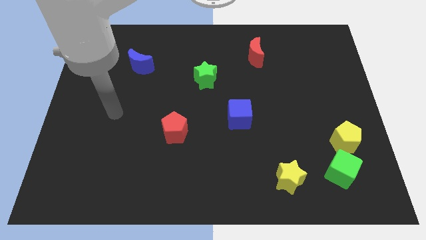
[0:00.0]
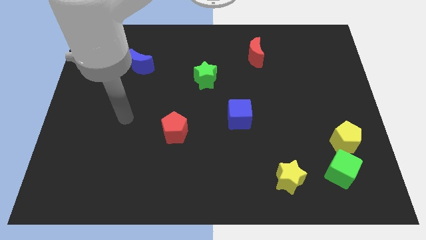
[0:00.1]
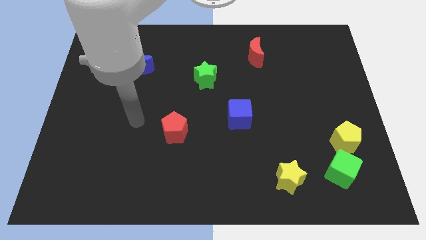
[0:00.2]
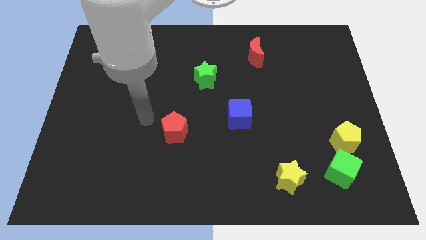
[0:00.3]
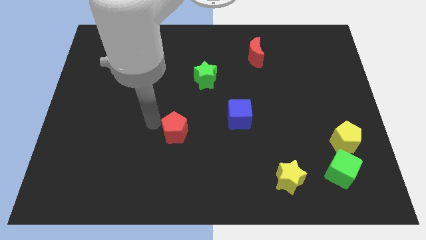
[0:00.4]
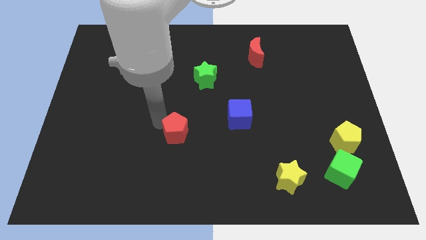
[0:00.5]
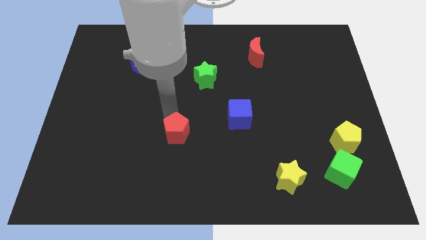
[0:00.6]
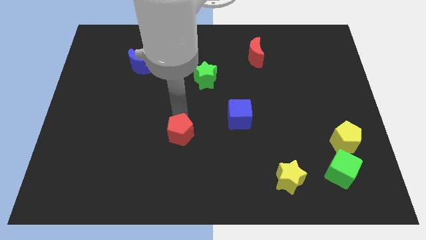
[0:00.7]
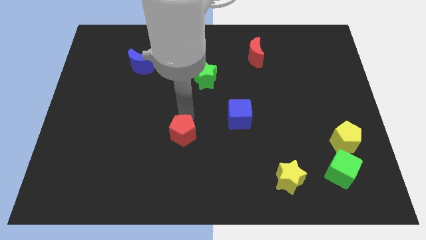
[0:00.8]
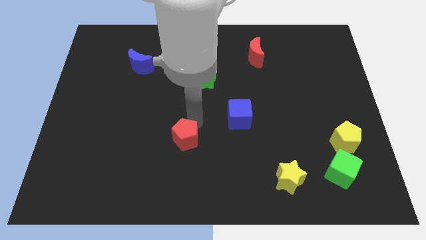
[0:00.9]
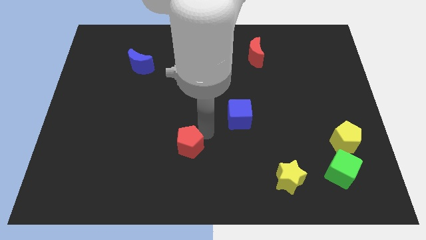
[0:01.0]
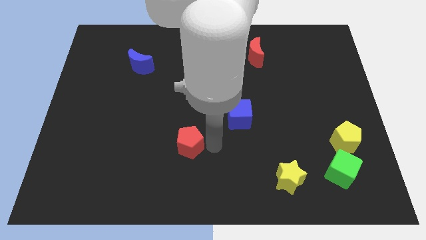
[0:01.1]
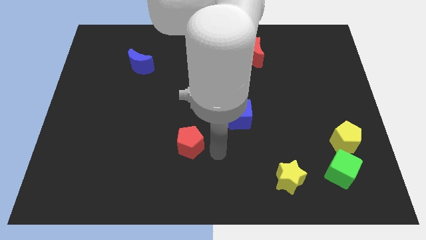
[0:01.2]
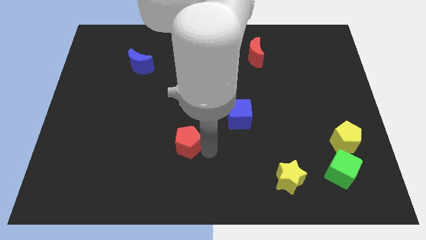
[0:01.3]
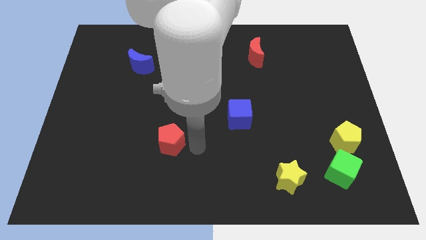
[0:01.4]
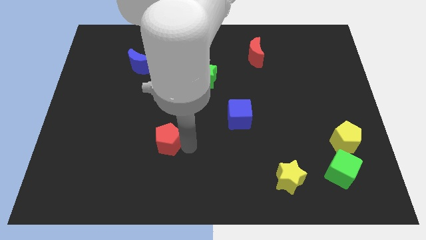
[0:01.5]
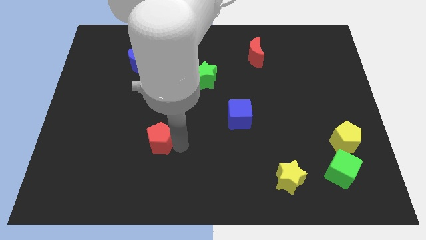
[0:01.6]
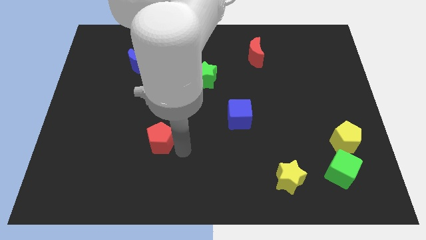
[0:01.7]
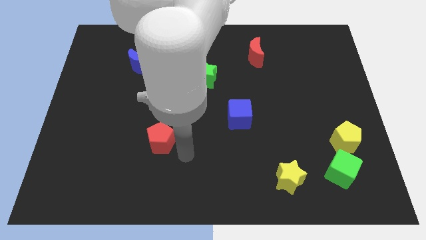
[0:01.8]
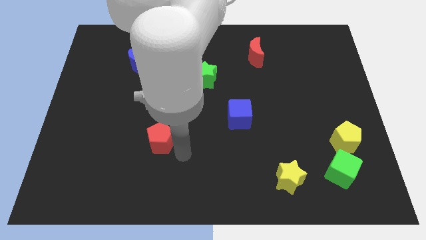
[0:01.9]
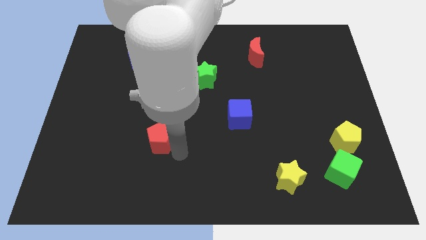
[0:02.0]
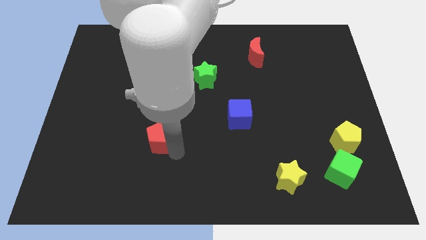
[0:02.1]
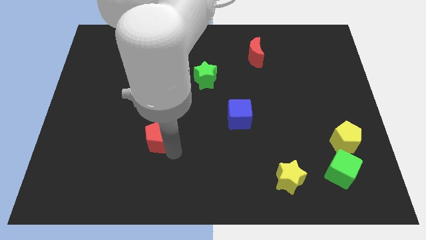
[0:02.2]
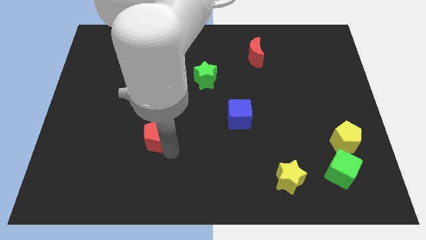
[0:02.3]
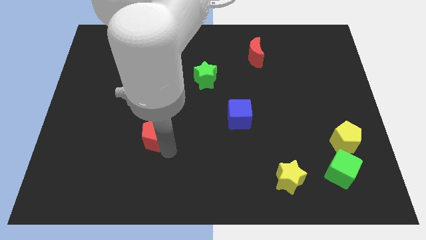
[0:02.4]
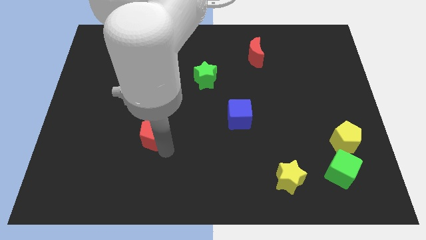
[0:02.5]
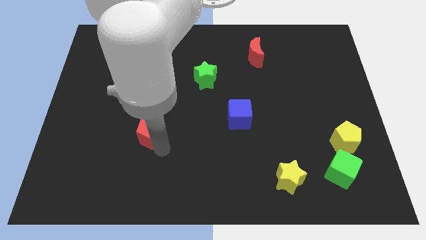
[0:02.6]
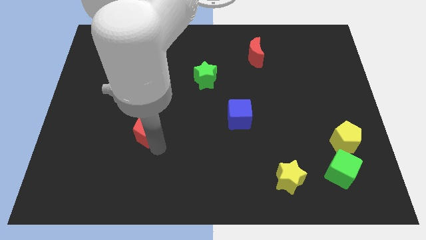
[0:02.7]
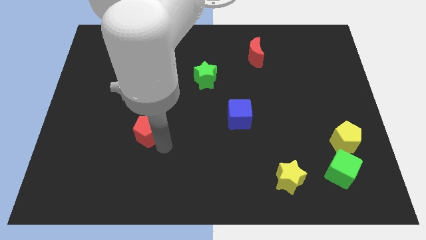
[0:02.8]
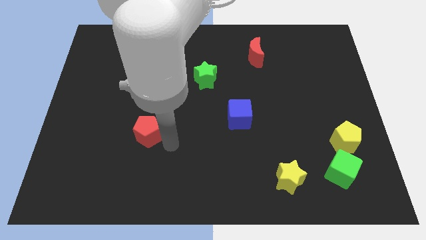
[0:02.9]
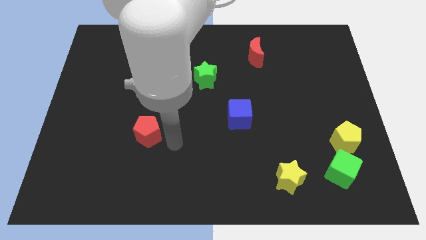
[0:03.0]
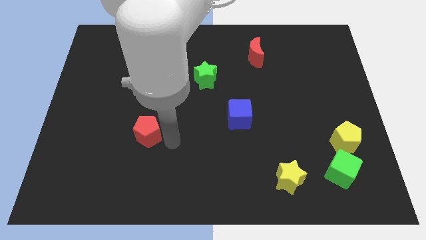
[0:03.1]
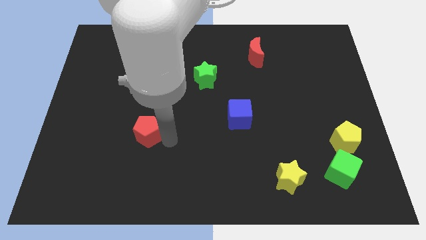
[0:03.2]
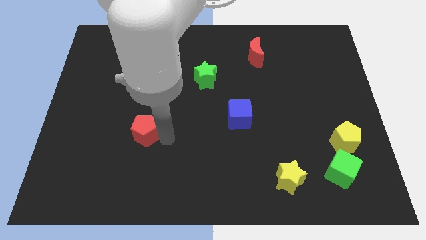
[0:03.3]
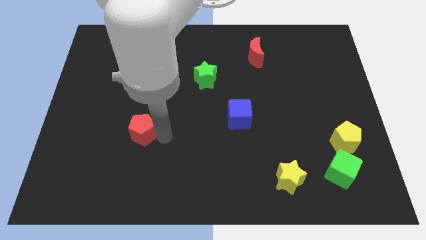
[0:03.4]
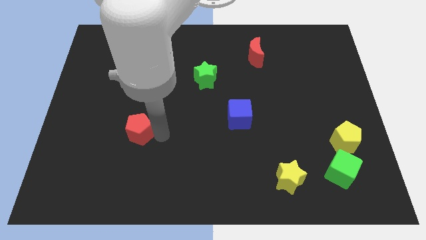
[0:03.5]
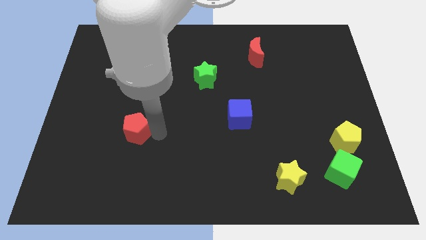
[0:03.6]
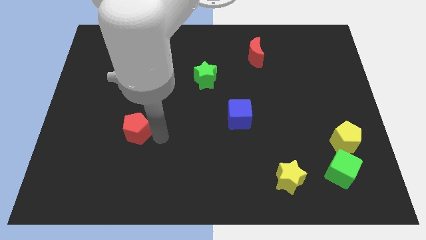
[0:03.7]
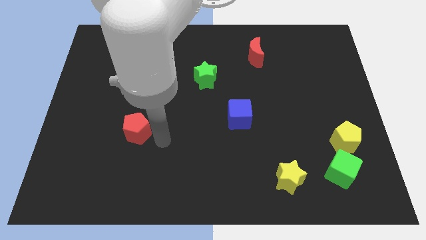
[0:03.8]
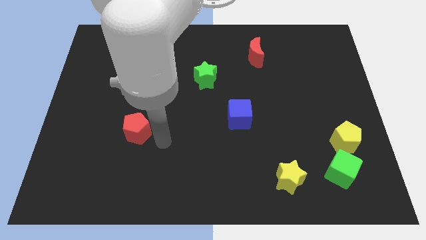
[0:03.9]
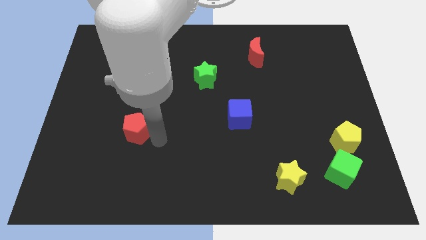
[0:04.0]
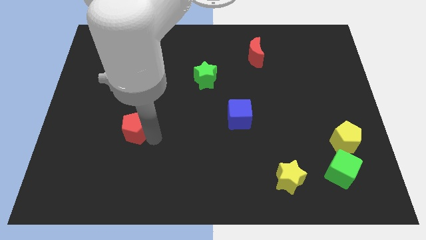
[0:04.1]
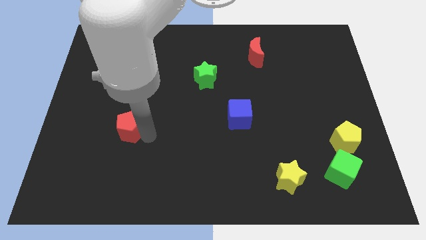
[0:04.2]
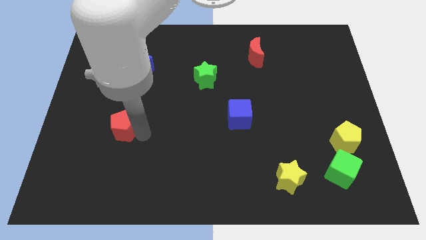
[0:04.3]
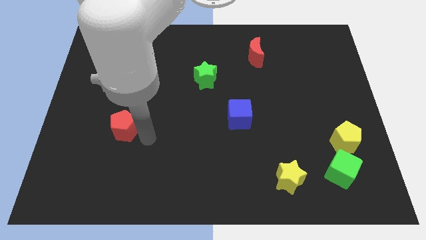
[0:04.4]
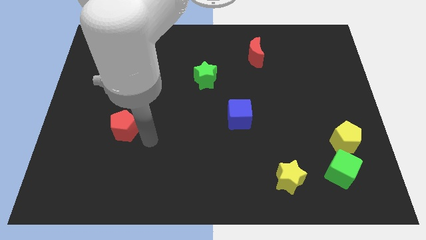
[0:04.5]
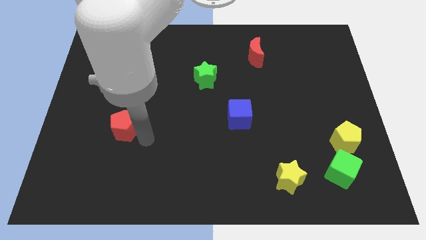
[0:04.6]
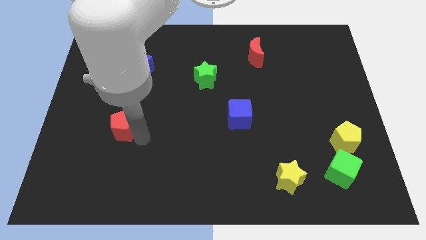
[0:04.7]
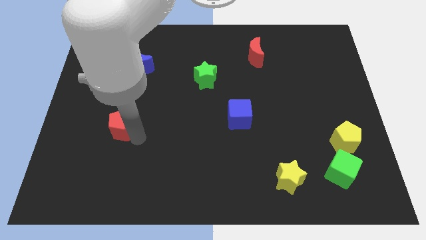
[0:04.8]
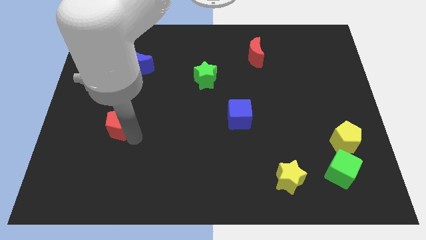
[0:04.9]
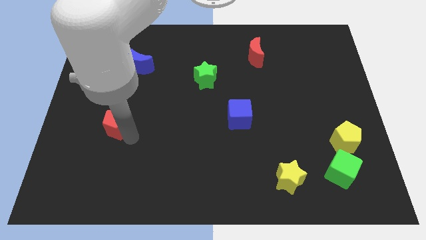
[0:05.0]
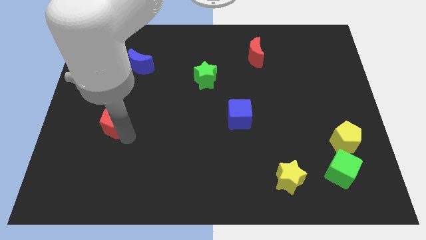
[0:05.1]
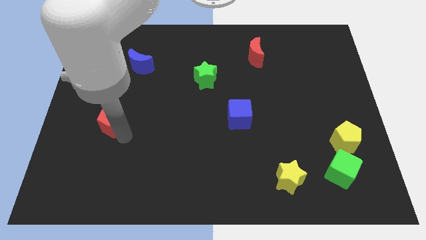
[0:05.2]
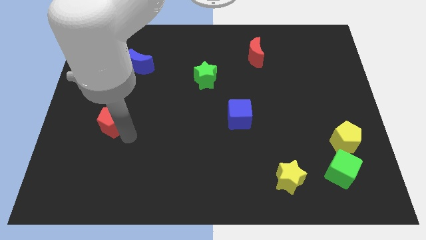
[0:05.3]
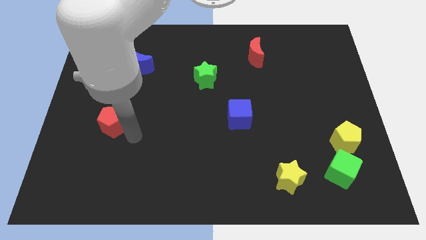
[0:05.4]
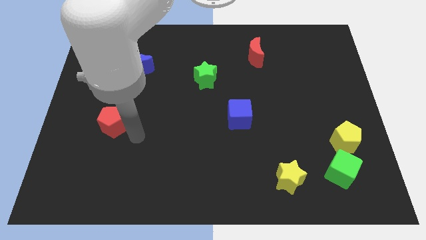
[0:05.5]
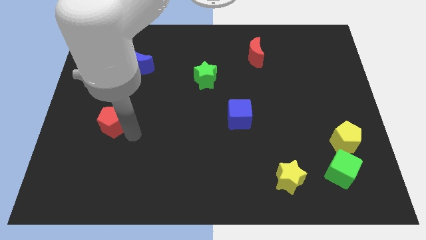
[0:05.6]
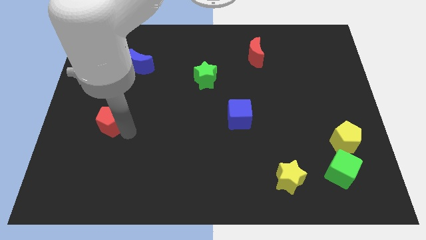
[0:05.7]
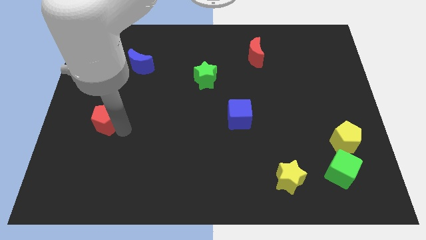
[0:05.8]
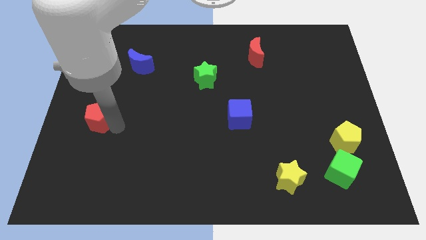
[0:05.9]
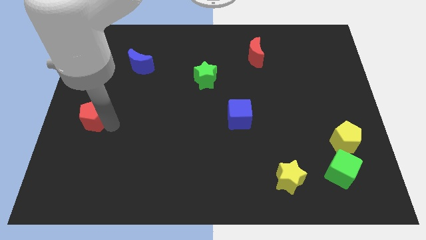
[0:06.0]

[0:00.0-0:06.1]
push the red pentagon to the center left

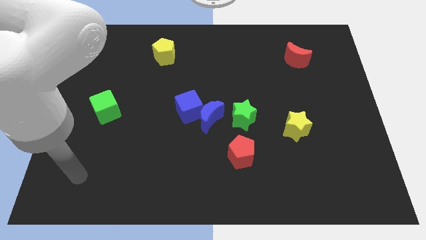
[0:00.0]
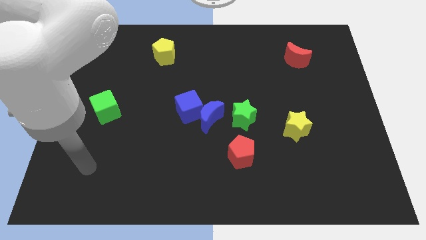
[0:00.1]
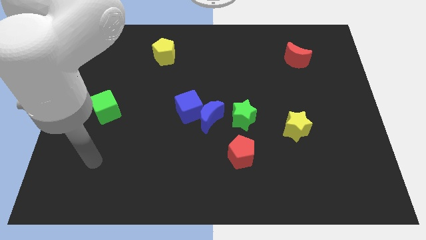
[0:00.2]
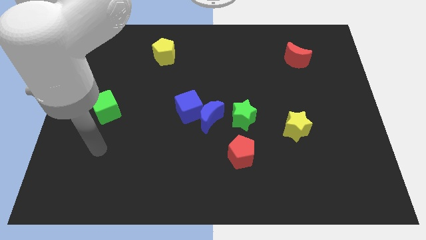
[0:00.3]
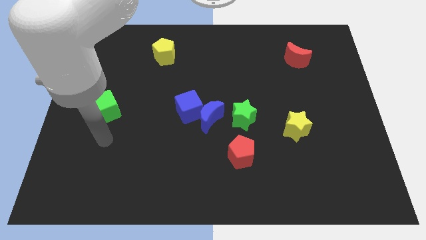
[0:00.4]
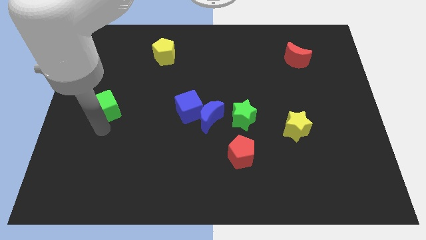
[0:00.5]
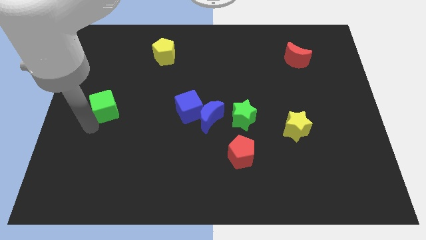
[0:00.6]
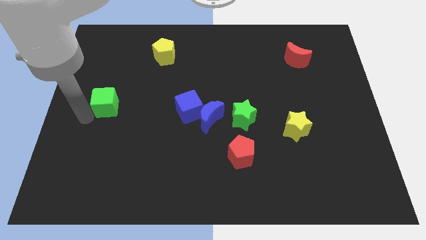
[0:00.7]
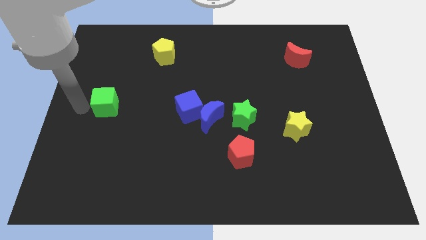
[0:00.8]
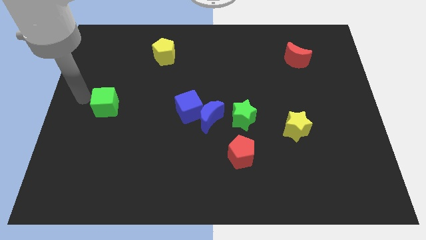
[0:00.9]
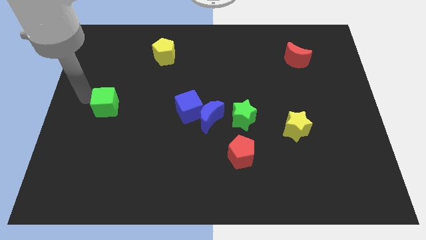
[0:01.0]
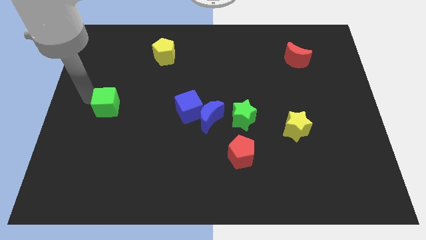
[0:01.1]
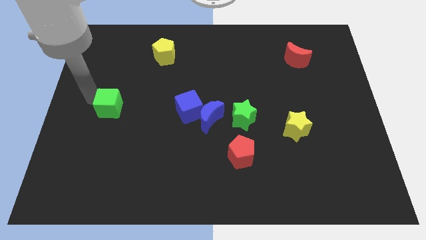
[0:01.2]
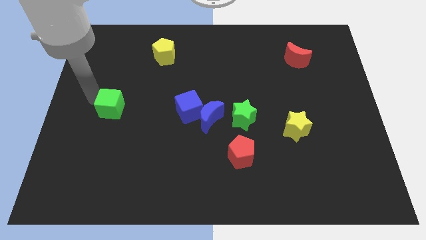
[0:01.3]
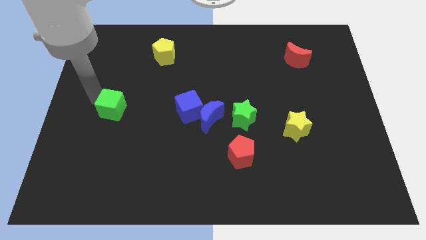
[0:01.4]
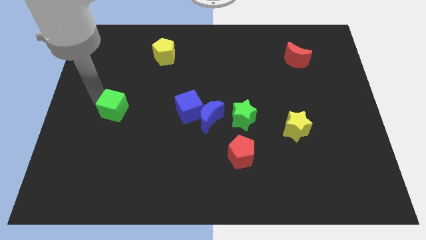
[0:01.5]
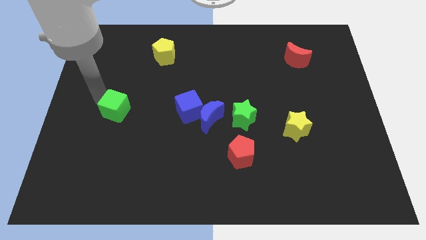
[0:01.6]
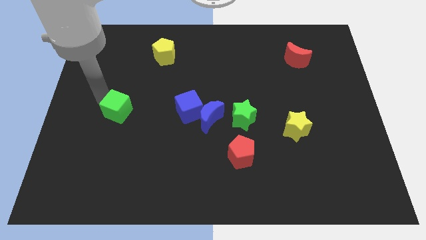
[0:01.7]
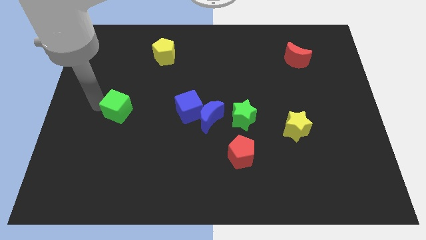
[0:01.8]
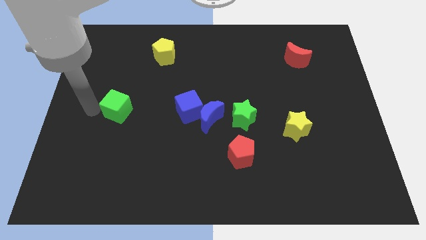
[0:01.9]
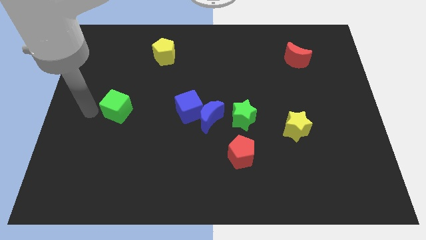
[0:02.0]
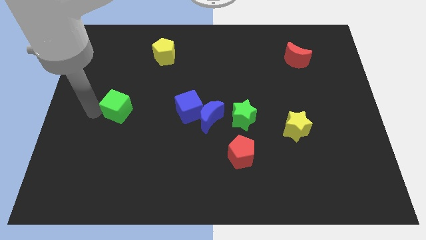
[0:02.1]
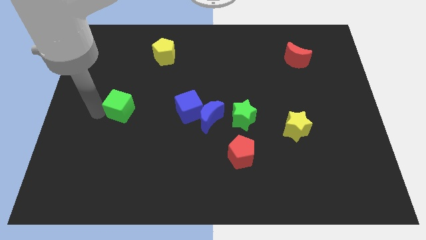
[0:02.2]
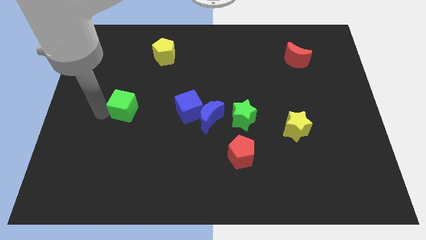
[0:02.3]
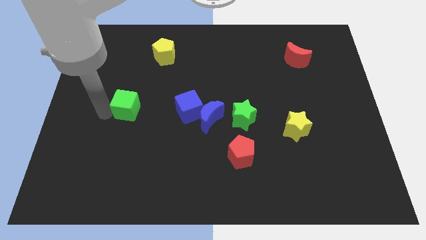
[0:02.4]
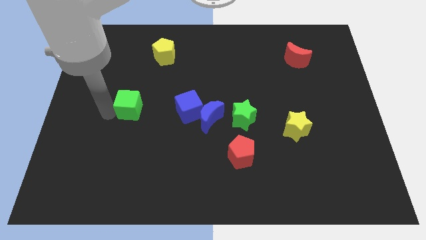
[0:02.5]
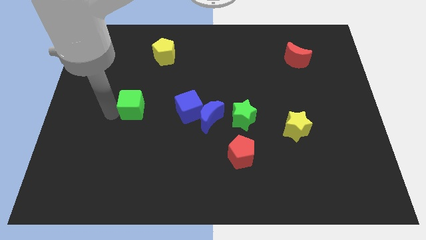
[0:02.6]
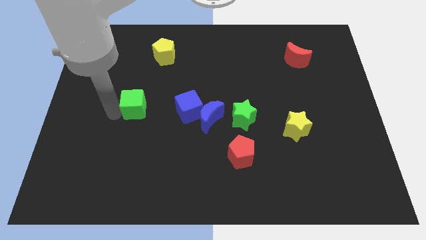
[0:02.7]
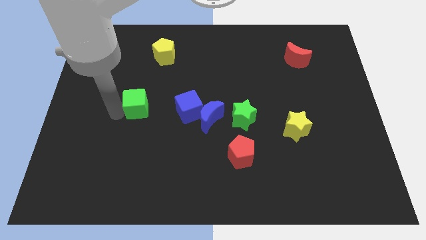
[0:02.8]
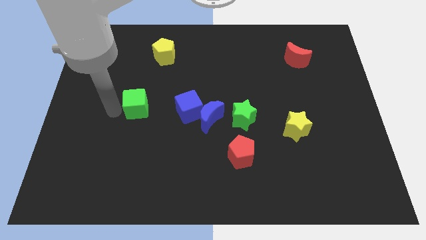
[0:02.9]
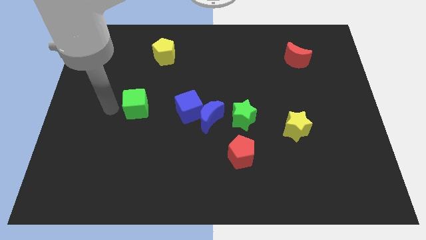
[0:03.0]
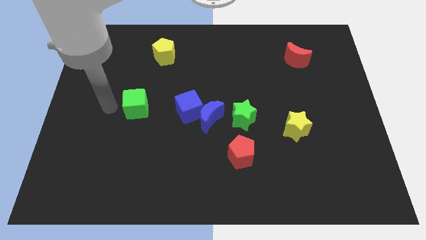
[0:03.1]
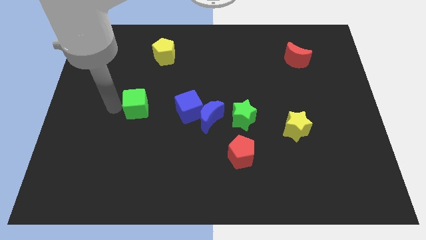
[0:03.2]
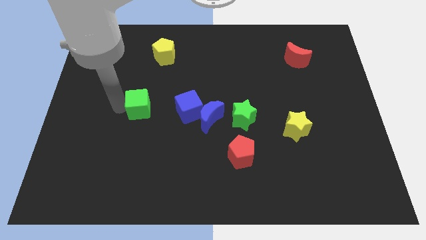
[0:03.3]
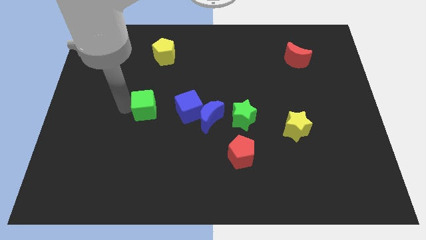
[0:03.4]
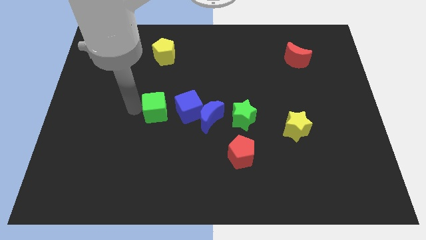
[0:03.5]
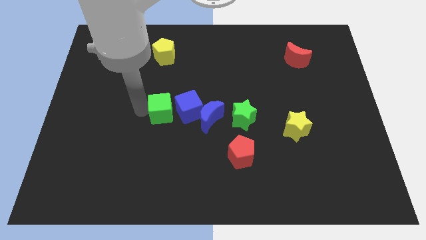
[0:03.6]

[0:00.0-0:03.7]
push the green cube to the middle
